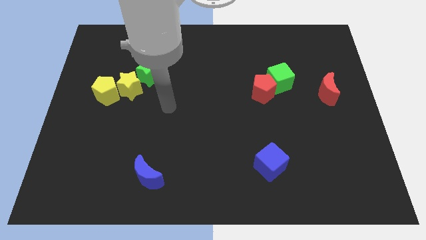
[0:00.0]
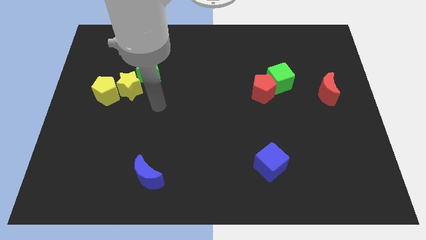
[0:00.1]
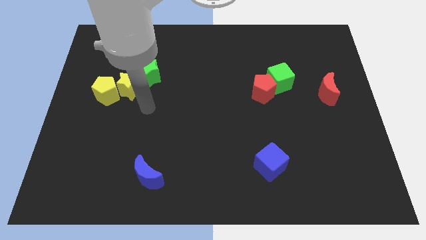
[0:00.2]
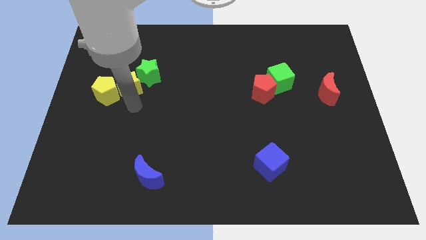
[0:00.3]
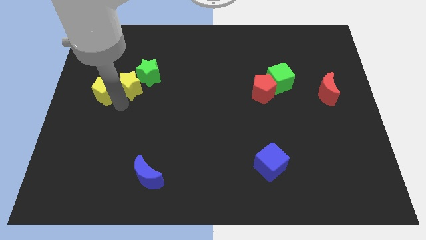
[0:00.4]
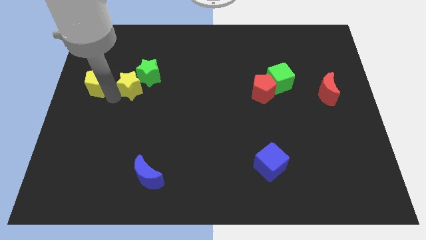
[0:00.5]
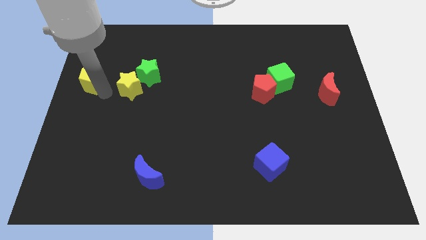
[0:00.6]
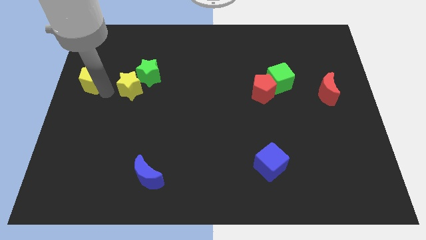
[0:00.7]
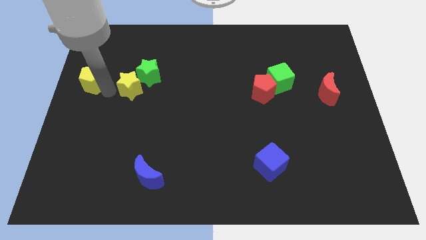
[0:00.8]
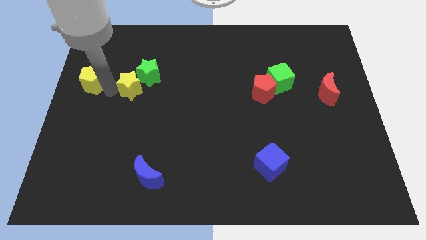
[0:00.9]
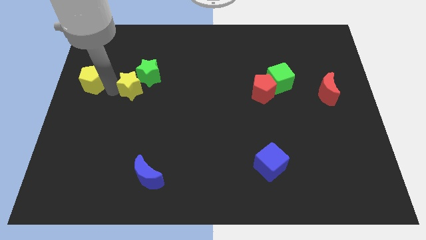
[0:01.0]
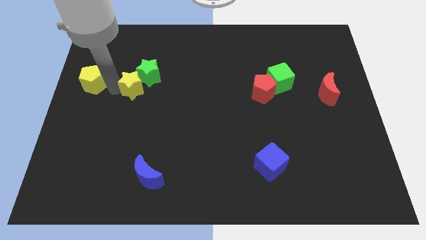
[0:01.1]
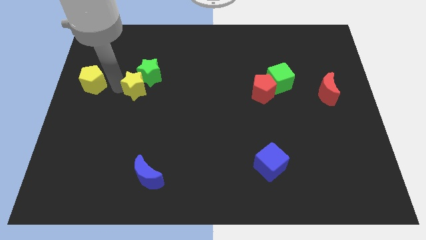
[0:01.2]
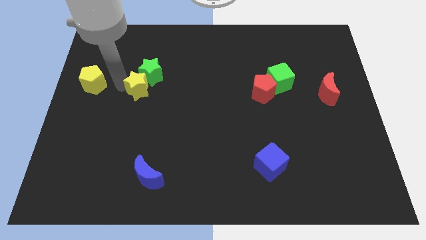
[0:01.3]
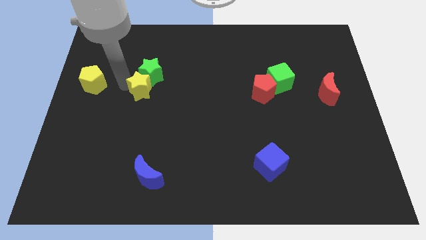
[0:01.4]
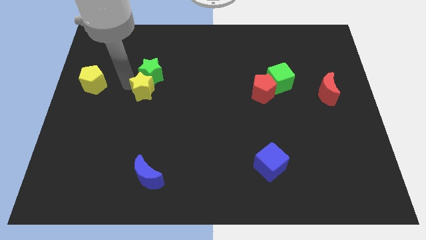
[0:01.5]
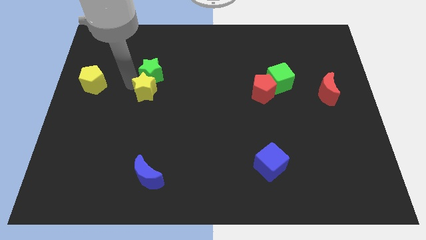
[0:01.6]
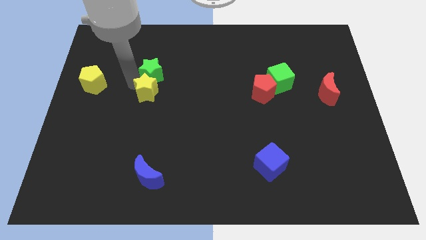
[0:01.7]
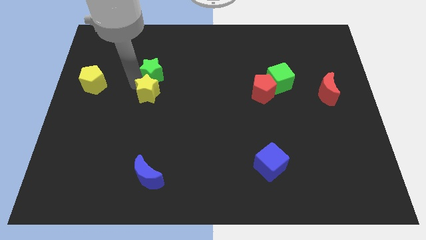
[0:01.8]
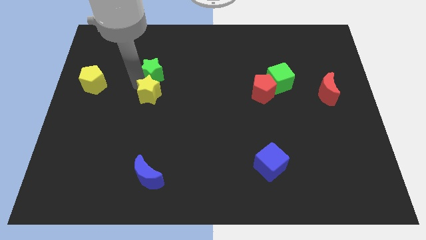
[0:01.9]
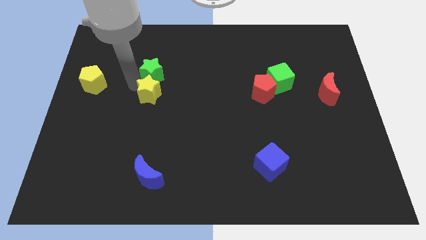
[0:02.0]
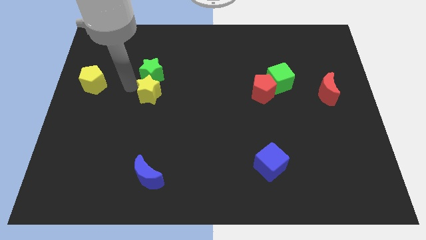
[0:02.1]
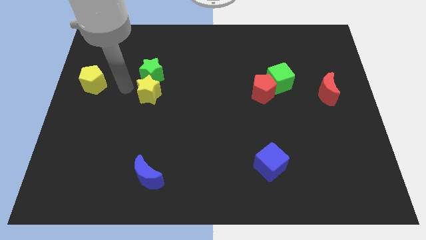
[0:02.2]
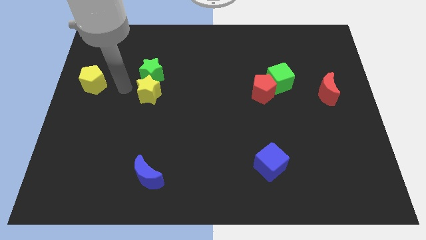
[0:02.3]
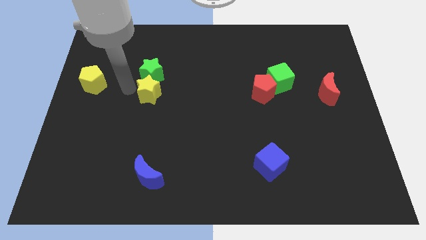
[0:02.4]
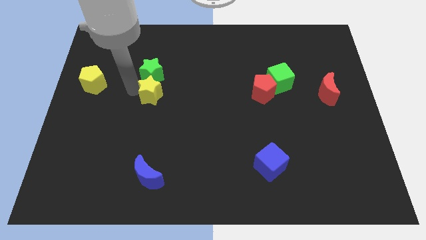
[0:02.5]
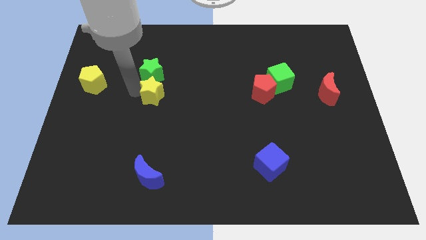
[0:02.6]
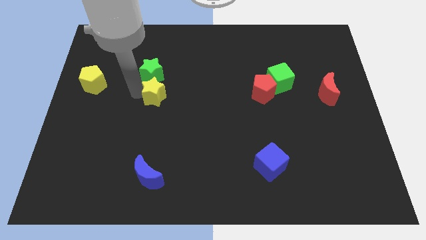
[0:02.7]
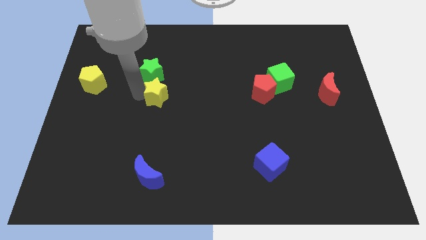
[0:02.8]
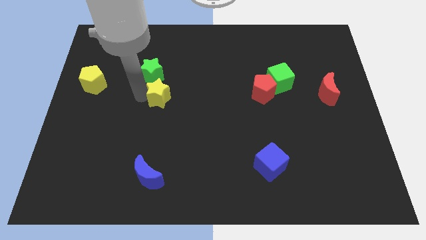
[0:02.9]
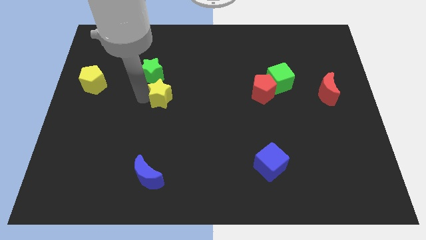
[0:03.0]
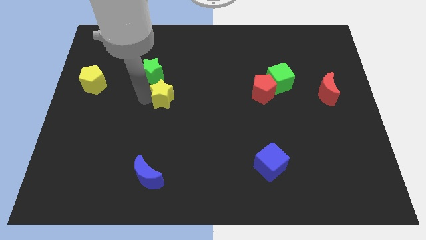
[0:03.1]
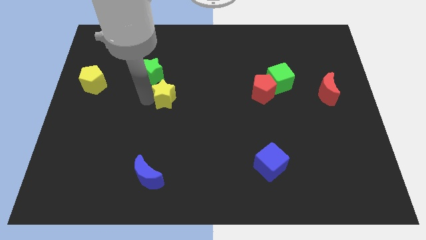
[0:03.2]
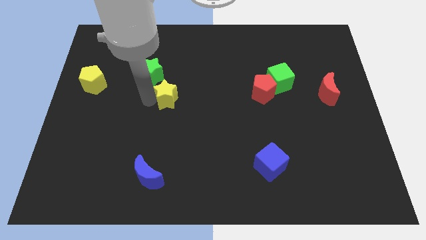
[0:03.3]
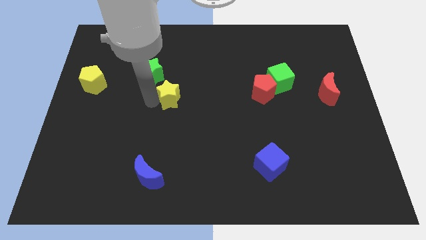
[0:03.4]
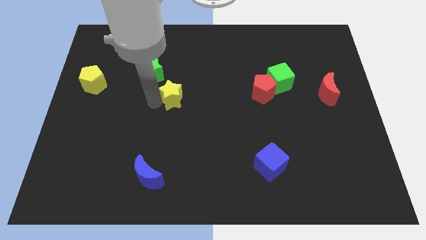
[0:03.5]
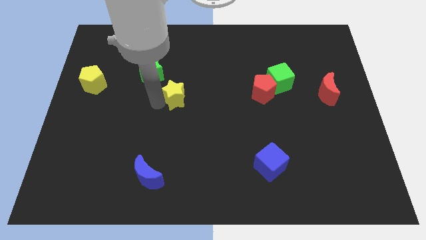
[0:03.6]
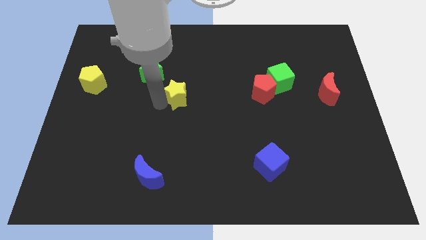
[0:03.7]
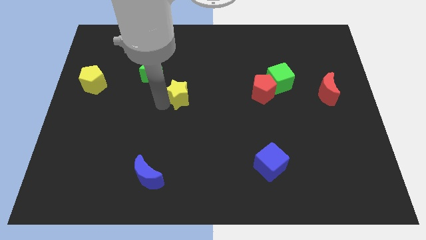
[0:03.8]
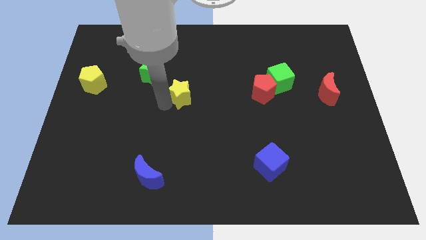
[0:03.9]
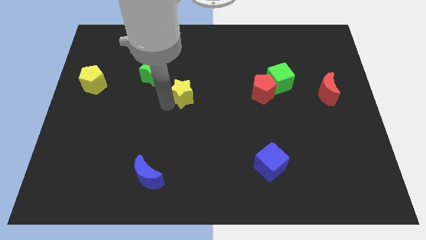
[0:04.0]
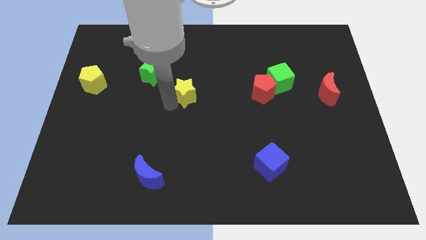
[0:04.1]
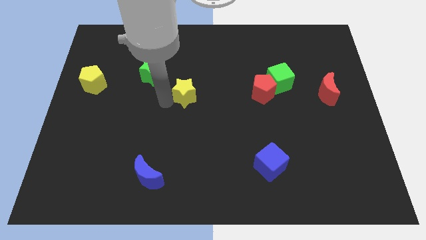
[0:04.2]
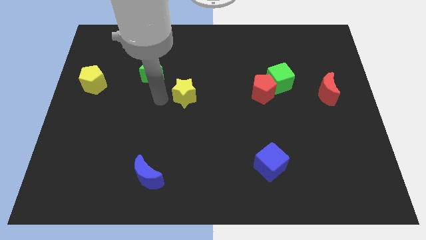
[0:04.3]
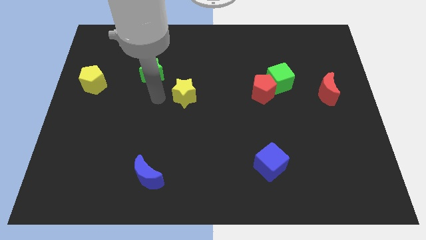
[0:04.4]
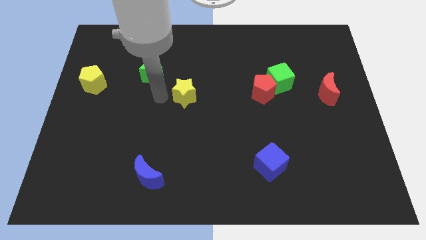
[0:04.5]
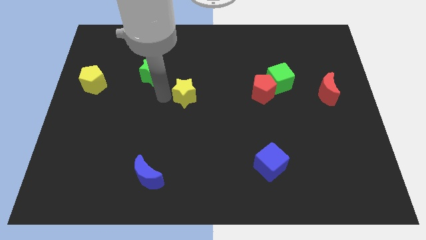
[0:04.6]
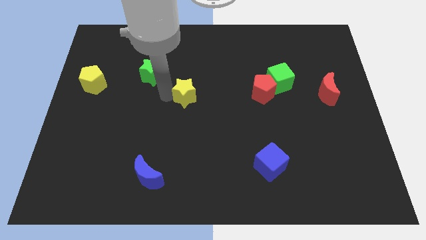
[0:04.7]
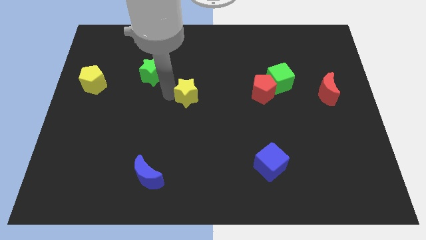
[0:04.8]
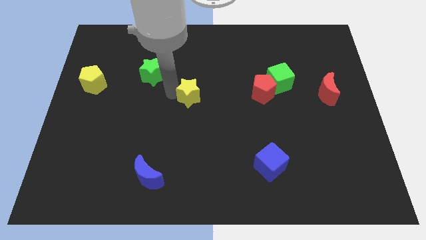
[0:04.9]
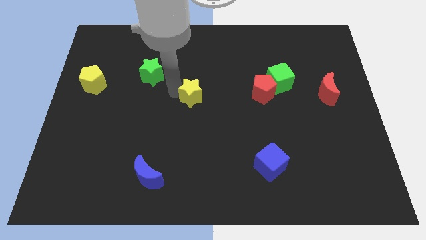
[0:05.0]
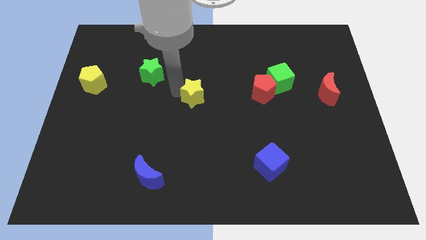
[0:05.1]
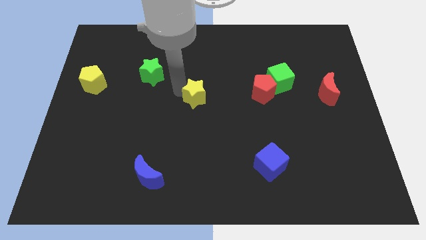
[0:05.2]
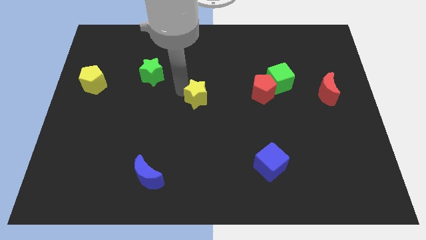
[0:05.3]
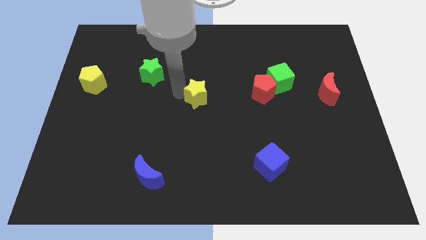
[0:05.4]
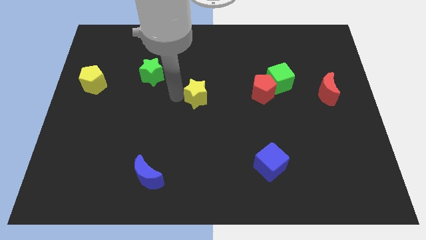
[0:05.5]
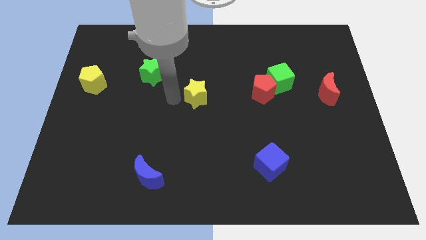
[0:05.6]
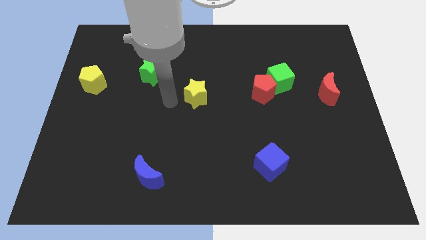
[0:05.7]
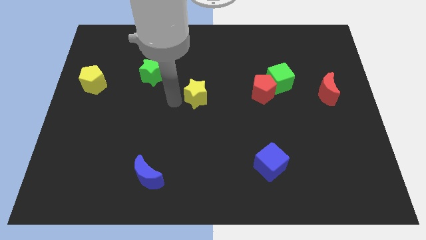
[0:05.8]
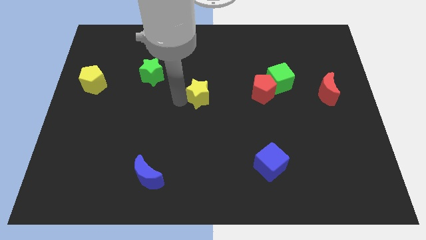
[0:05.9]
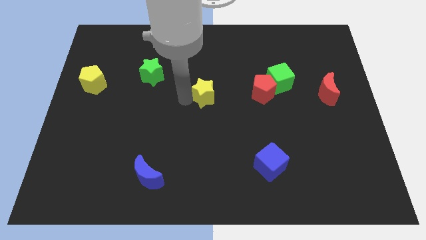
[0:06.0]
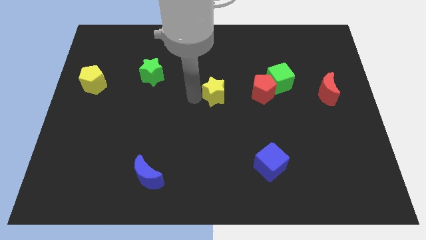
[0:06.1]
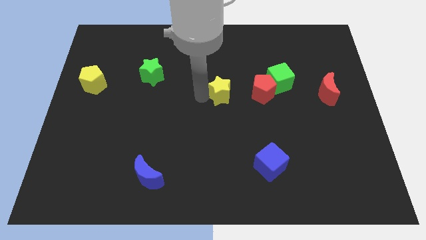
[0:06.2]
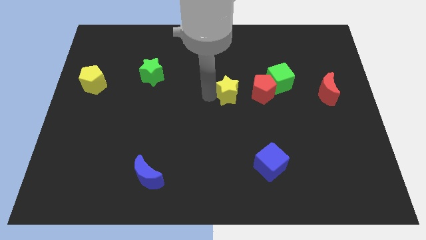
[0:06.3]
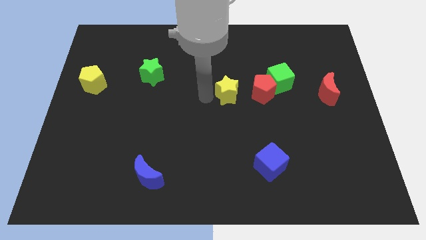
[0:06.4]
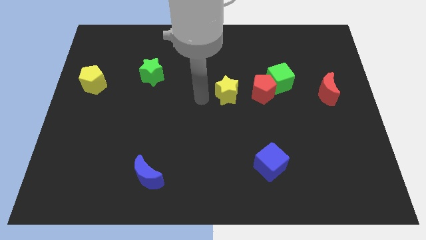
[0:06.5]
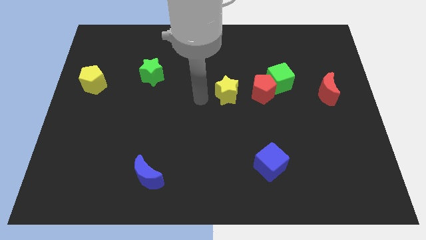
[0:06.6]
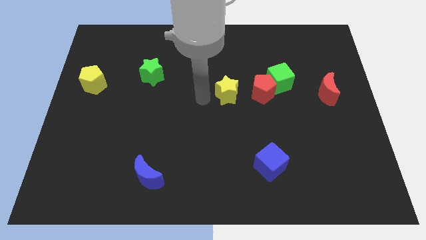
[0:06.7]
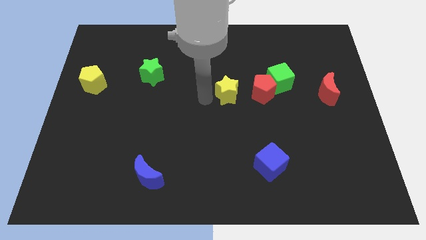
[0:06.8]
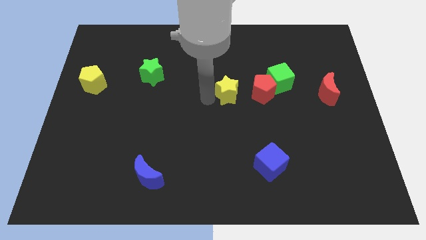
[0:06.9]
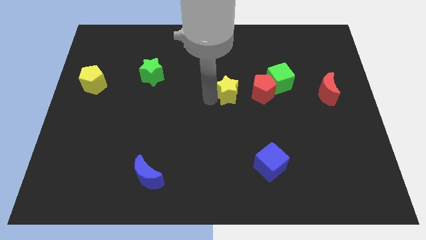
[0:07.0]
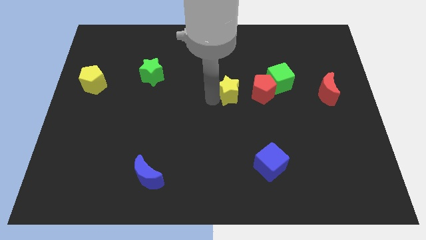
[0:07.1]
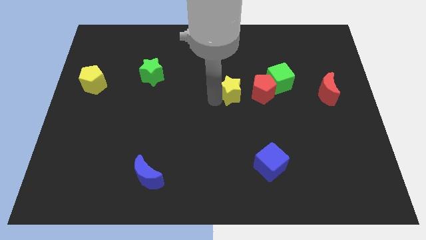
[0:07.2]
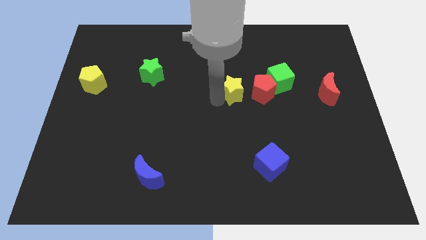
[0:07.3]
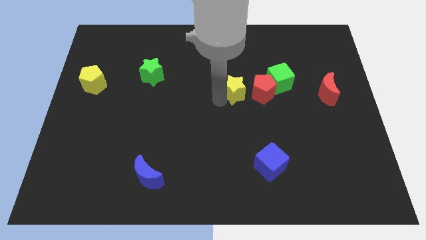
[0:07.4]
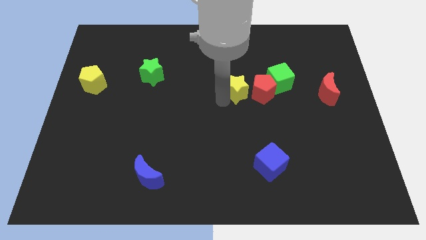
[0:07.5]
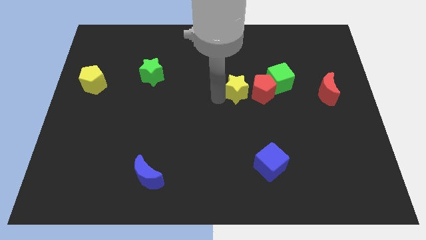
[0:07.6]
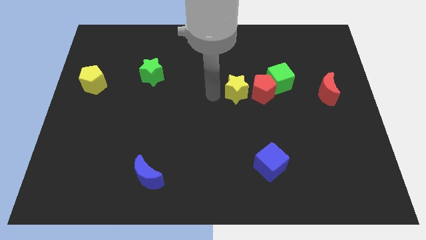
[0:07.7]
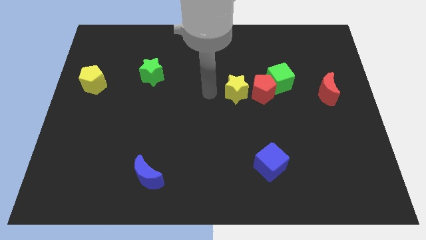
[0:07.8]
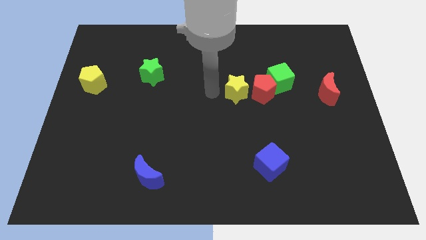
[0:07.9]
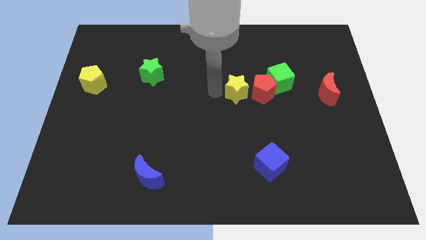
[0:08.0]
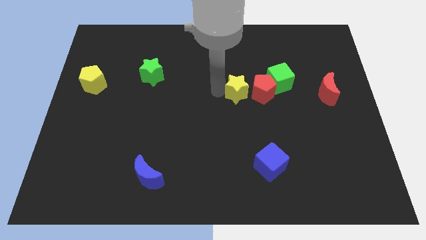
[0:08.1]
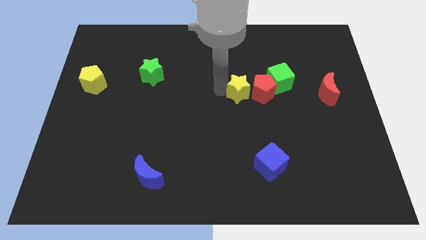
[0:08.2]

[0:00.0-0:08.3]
slide the yellow star close to the red pentagon
